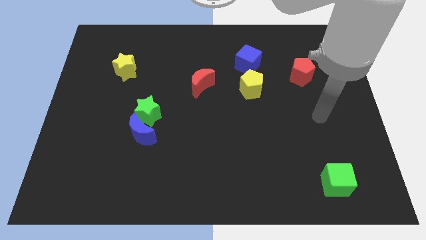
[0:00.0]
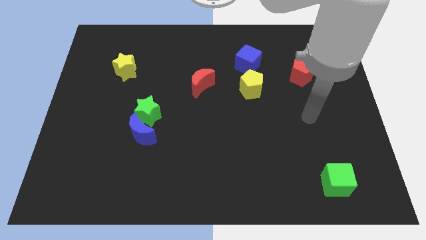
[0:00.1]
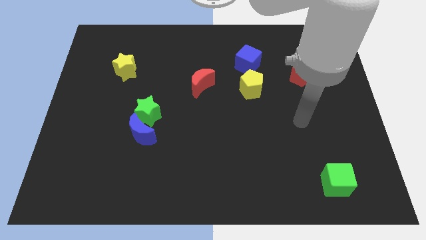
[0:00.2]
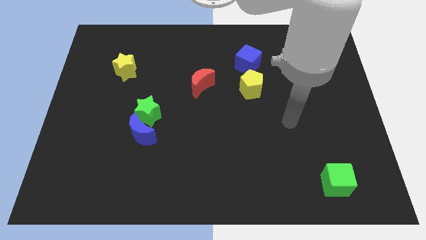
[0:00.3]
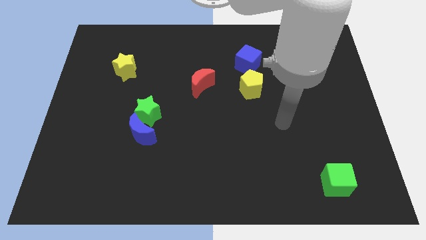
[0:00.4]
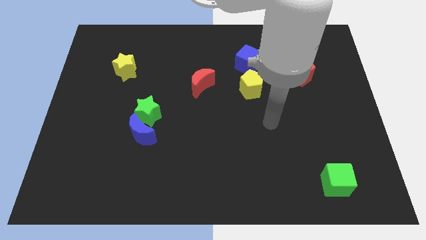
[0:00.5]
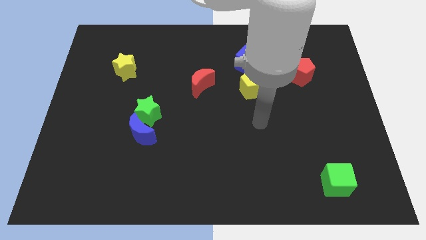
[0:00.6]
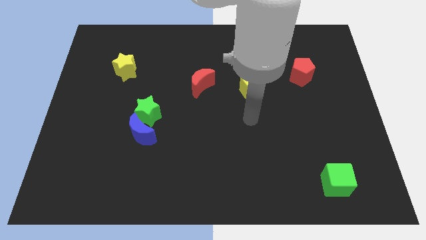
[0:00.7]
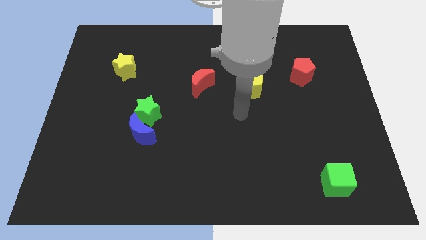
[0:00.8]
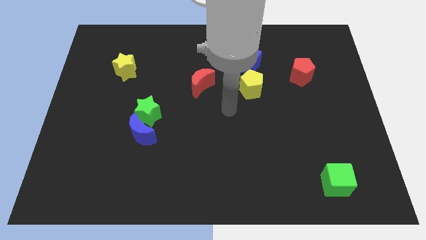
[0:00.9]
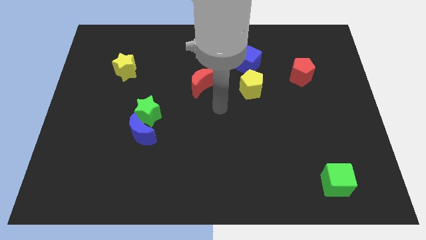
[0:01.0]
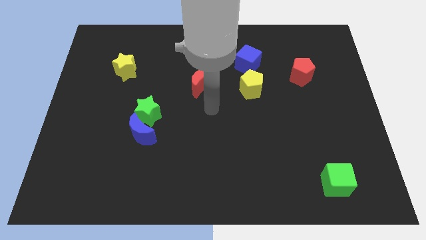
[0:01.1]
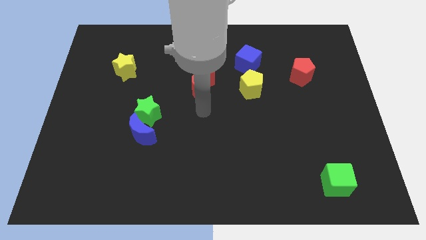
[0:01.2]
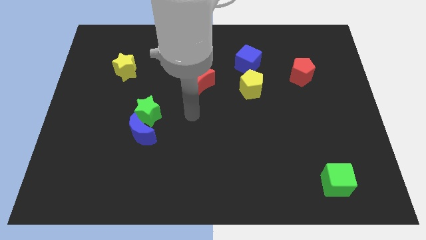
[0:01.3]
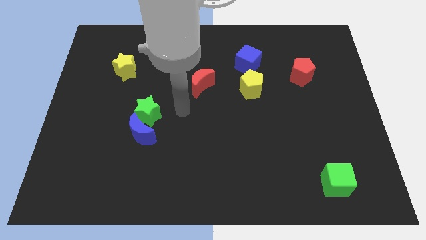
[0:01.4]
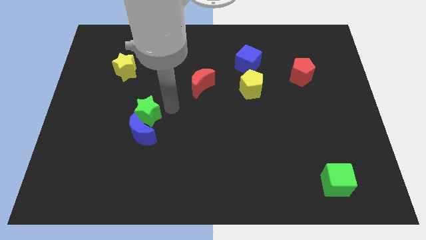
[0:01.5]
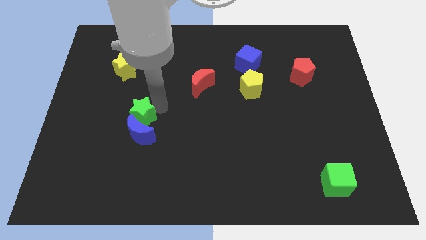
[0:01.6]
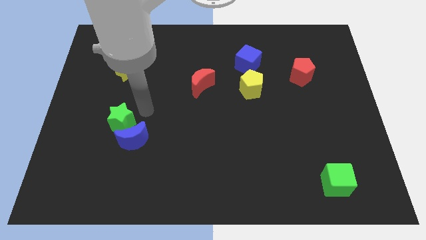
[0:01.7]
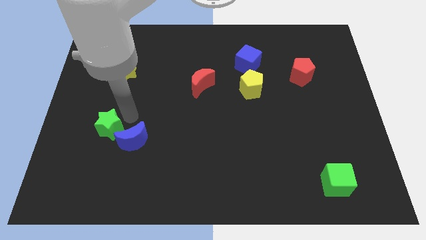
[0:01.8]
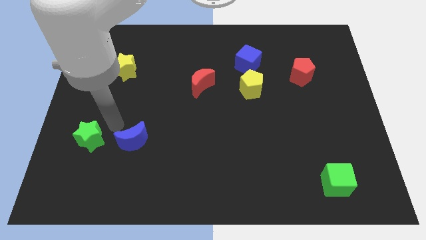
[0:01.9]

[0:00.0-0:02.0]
move the blue moon away from the green star

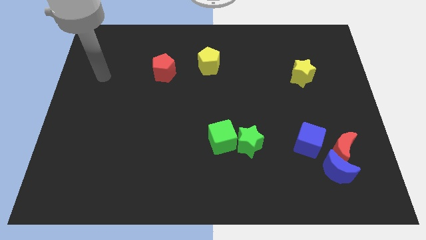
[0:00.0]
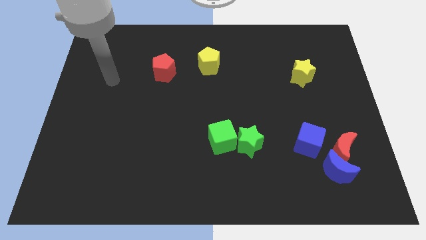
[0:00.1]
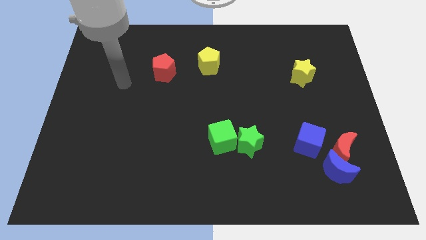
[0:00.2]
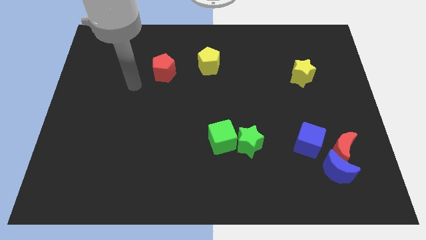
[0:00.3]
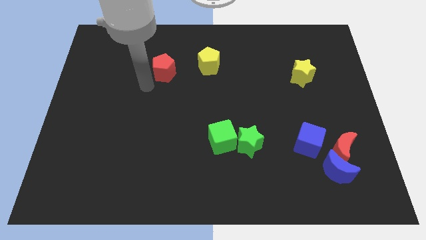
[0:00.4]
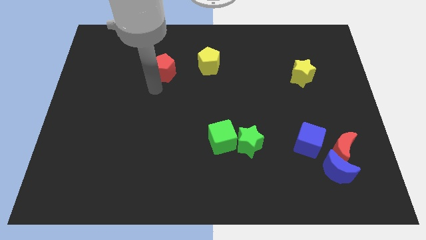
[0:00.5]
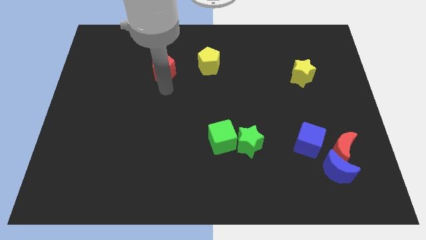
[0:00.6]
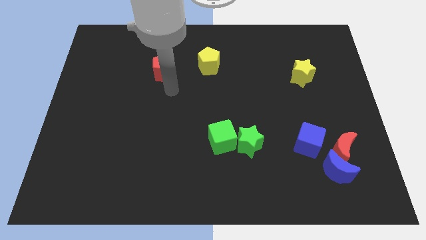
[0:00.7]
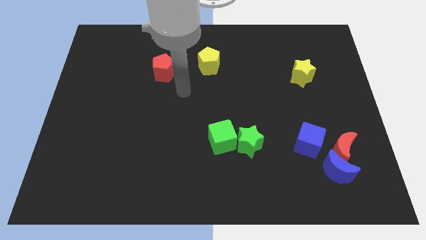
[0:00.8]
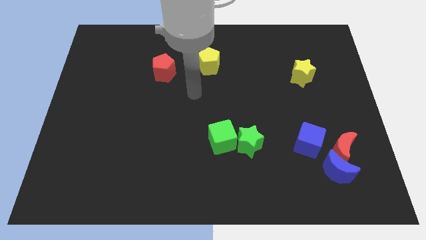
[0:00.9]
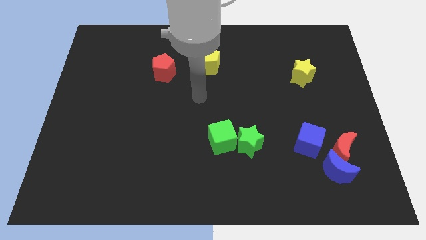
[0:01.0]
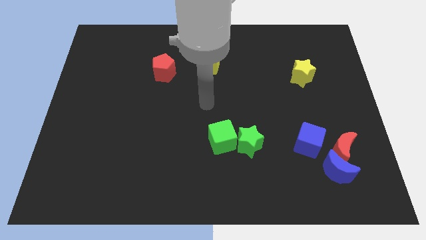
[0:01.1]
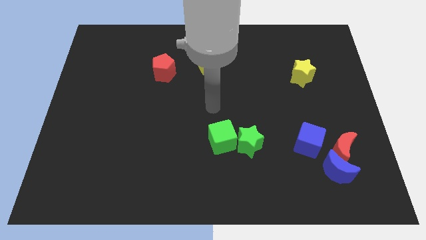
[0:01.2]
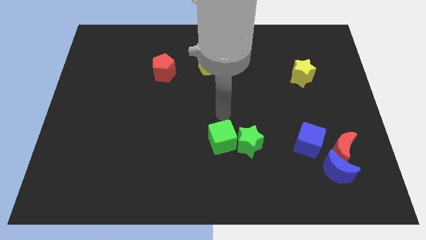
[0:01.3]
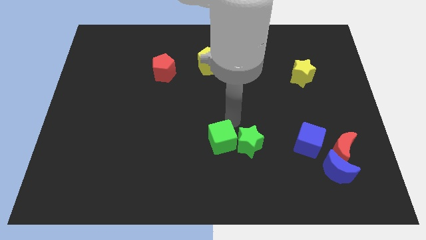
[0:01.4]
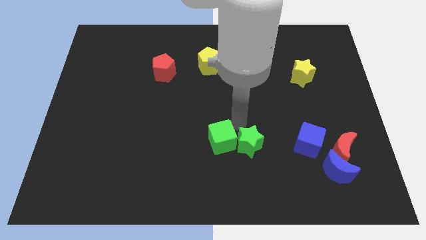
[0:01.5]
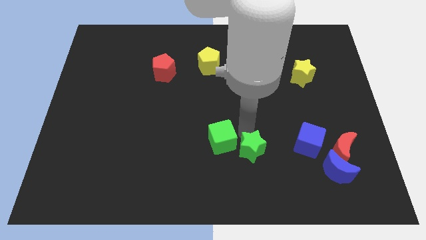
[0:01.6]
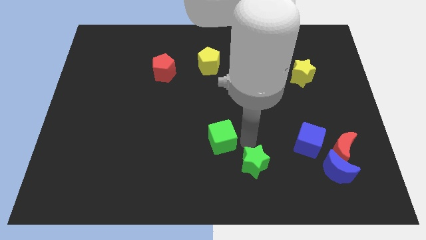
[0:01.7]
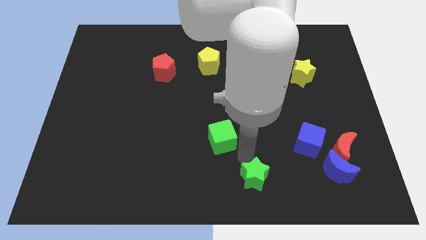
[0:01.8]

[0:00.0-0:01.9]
separate the green cube from the green star

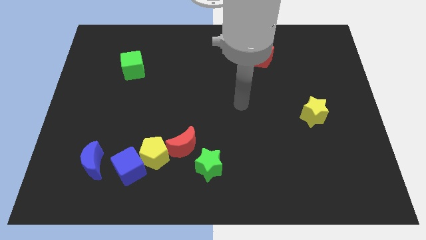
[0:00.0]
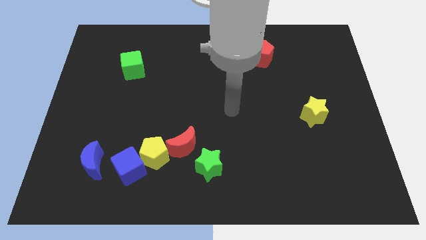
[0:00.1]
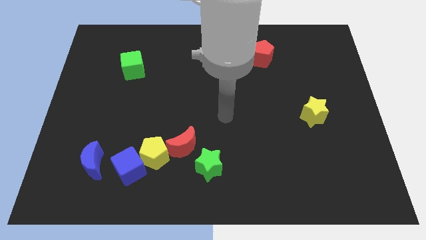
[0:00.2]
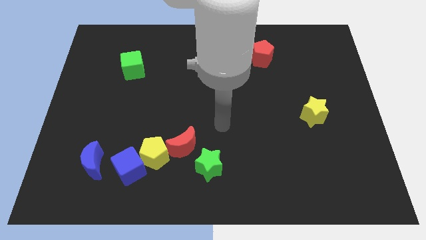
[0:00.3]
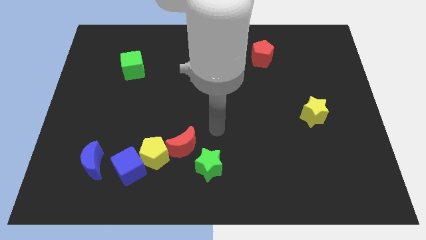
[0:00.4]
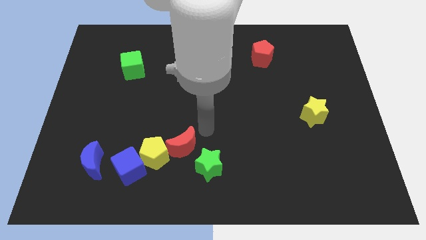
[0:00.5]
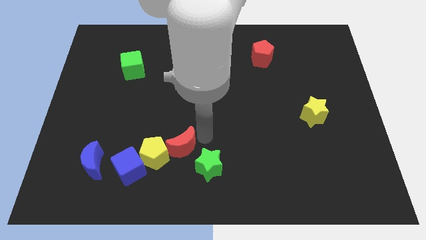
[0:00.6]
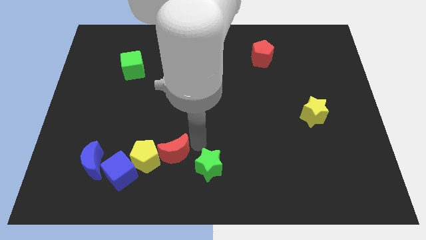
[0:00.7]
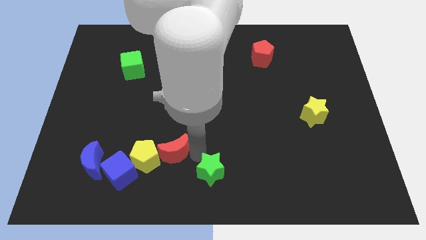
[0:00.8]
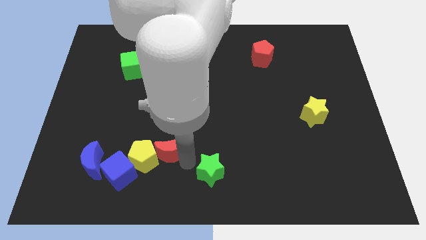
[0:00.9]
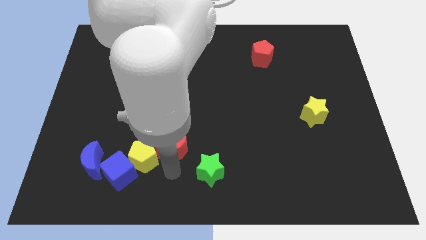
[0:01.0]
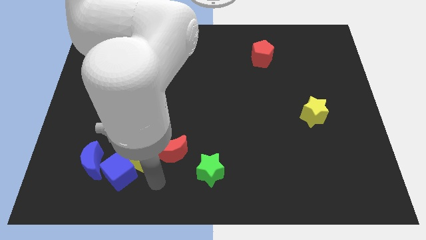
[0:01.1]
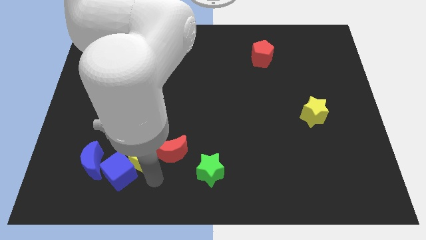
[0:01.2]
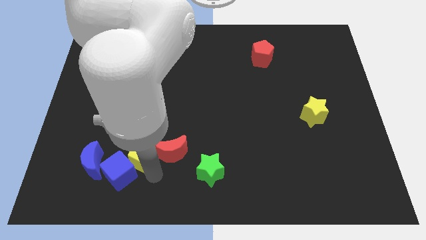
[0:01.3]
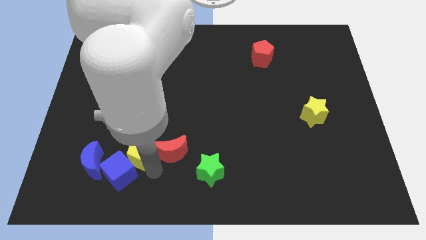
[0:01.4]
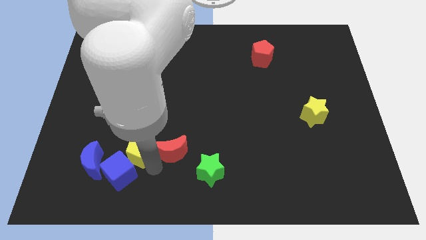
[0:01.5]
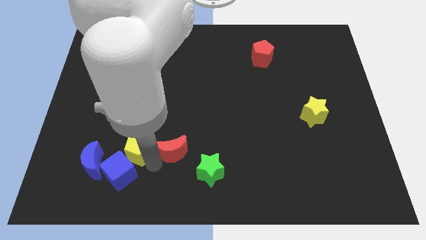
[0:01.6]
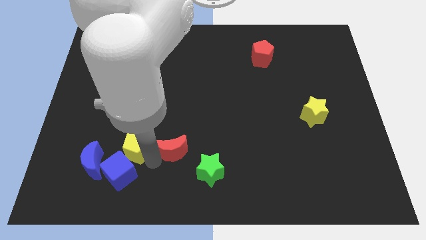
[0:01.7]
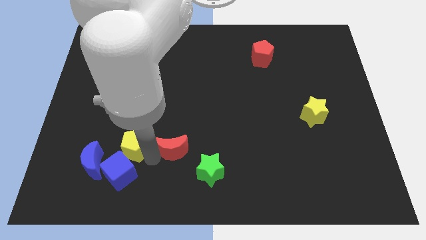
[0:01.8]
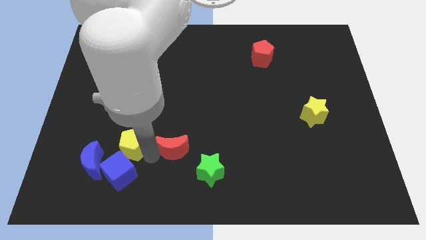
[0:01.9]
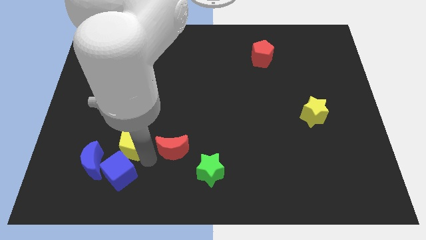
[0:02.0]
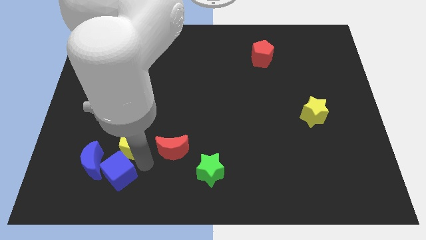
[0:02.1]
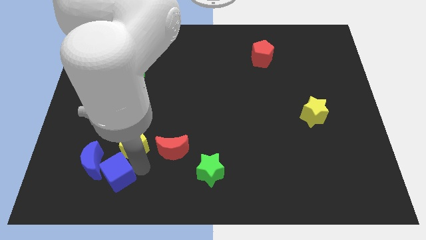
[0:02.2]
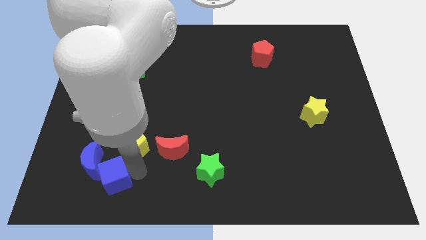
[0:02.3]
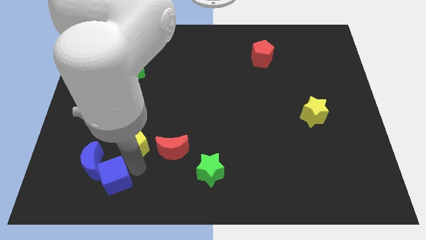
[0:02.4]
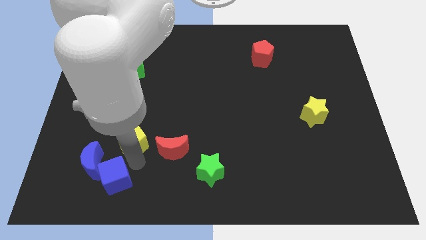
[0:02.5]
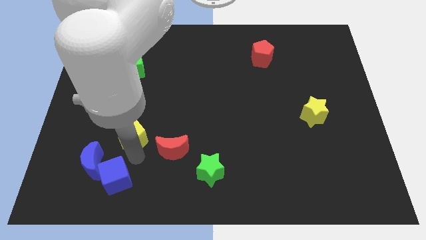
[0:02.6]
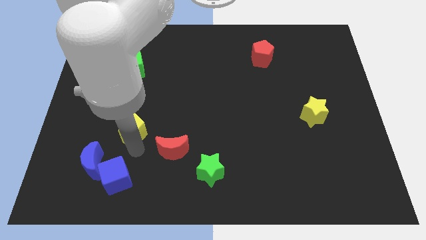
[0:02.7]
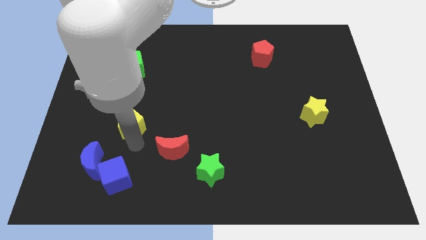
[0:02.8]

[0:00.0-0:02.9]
separate the yellow pentagon from the blue cube and red moon

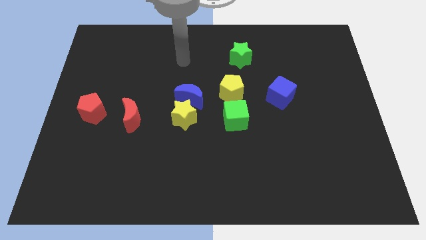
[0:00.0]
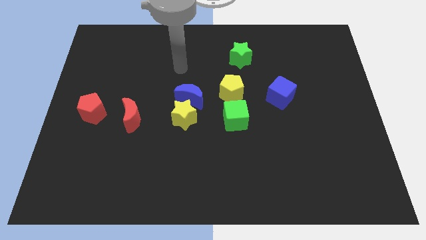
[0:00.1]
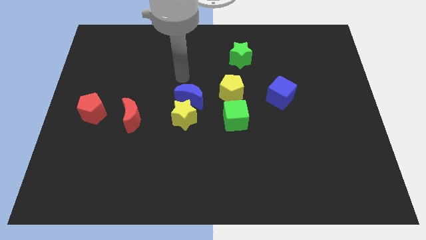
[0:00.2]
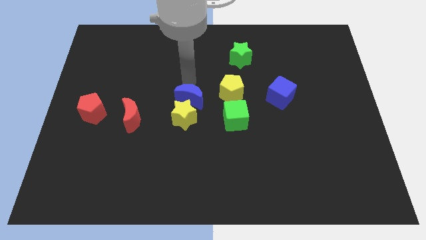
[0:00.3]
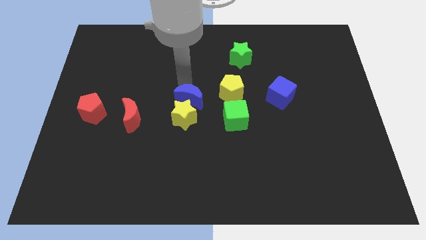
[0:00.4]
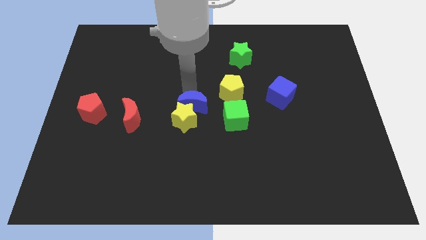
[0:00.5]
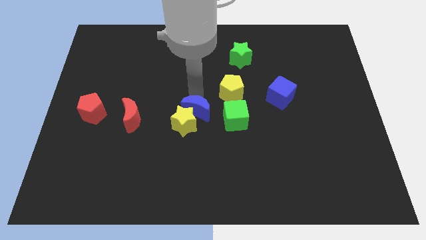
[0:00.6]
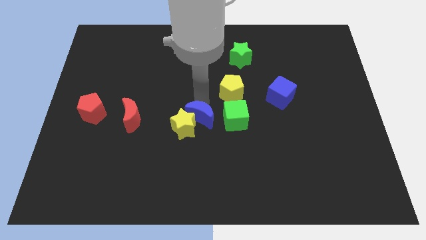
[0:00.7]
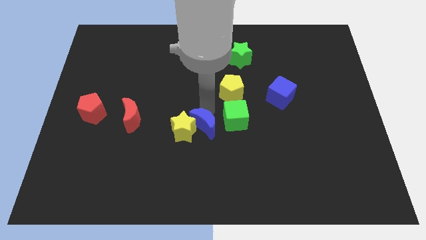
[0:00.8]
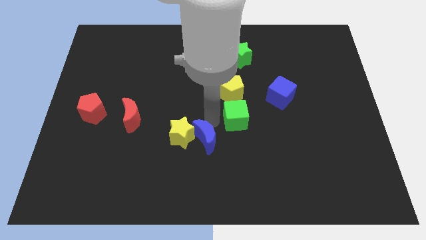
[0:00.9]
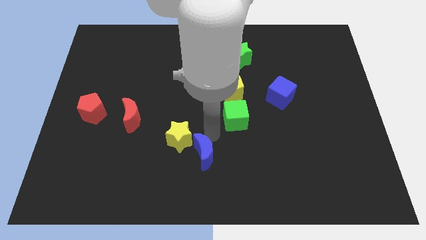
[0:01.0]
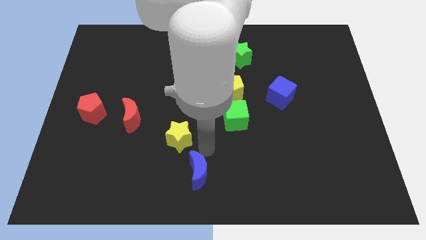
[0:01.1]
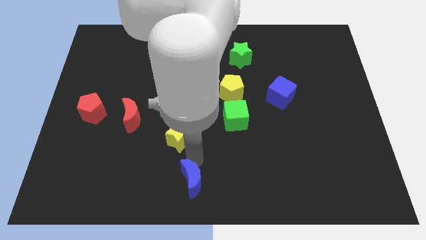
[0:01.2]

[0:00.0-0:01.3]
pull the yellow star apart from the blue moon

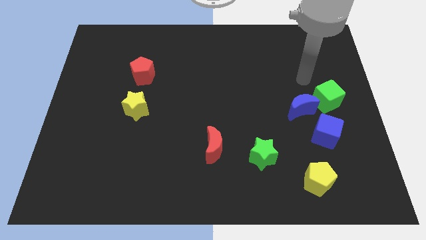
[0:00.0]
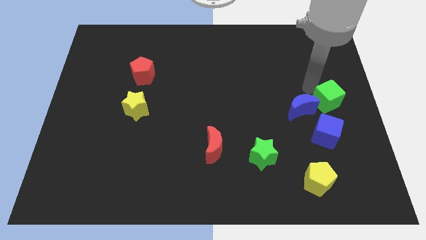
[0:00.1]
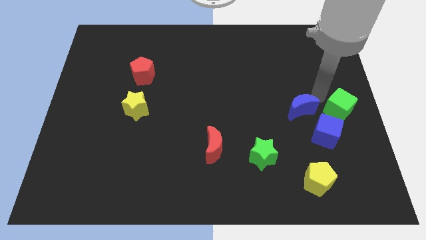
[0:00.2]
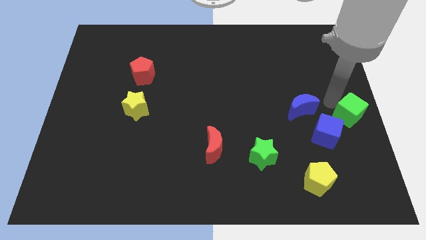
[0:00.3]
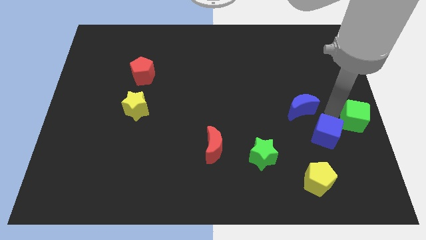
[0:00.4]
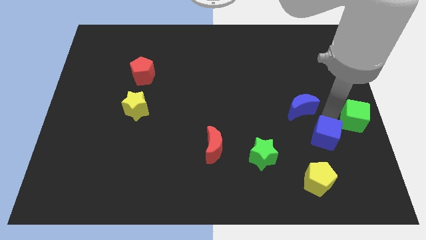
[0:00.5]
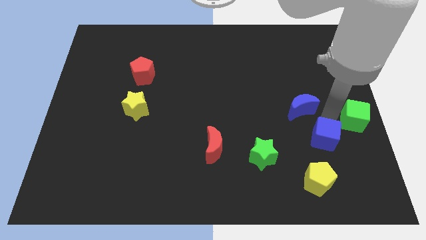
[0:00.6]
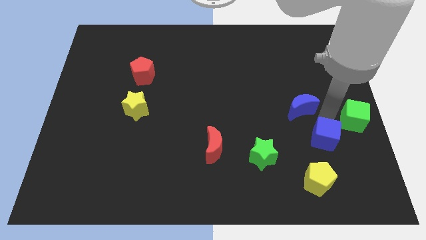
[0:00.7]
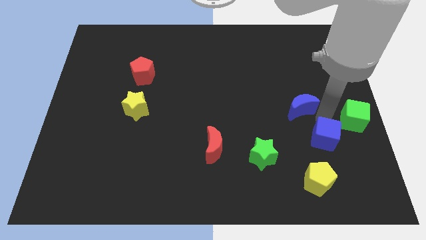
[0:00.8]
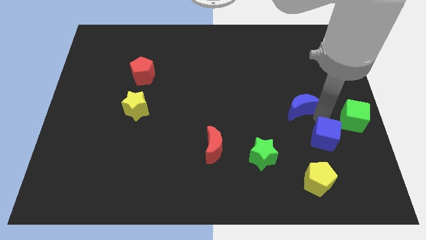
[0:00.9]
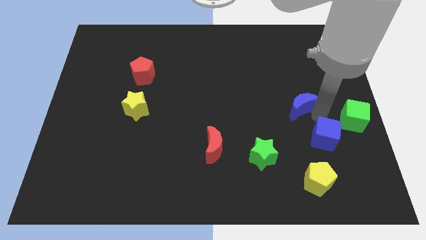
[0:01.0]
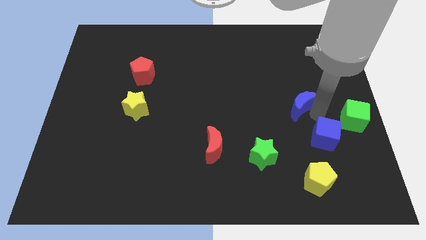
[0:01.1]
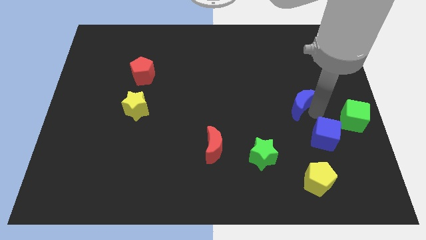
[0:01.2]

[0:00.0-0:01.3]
pull the blue moon apart from the green cube and blue cube
